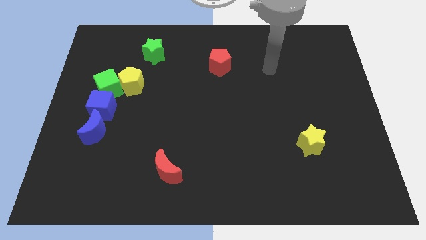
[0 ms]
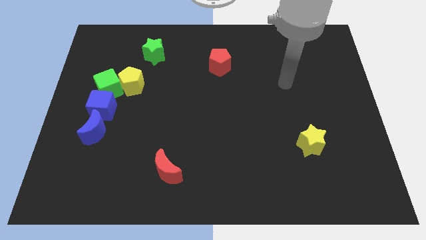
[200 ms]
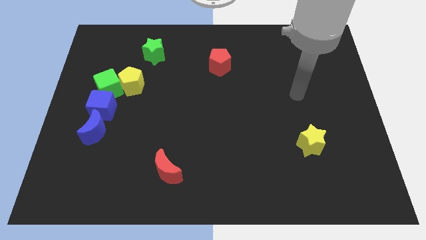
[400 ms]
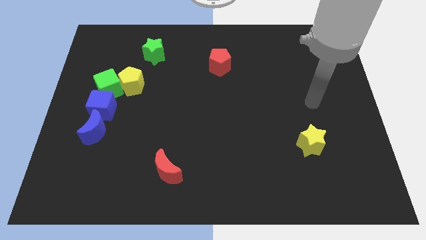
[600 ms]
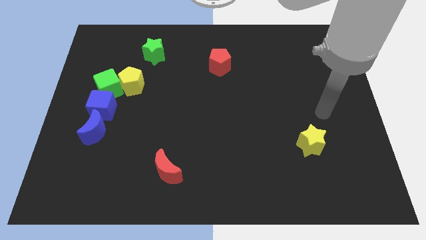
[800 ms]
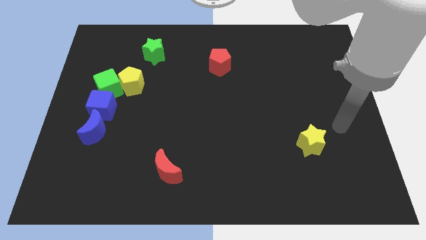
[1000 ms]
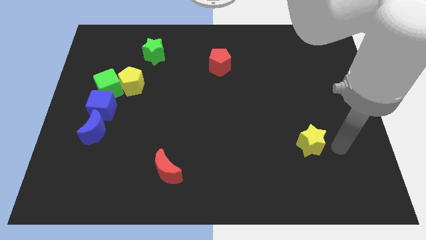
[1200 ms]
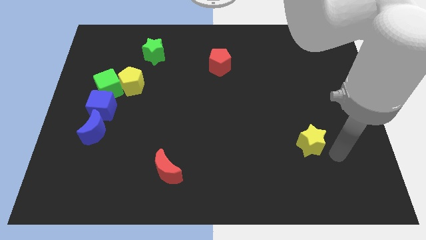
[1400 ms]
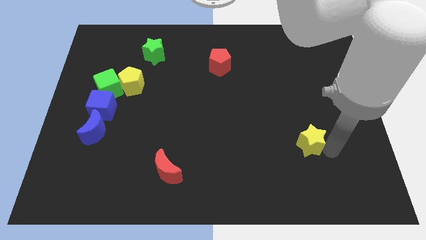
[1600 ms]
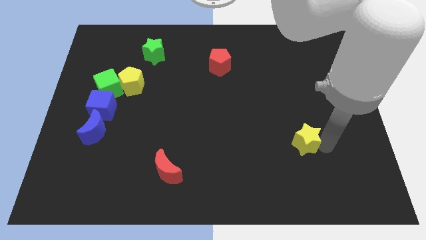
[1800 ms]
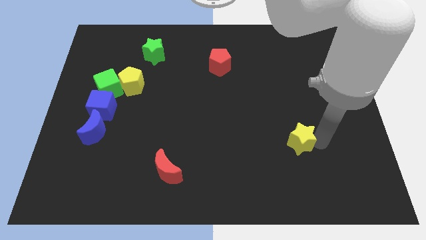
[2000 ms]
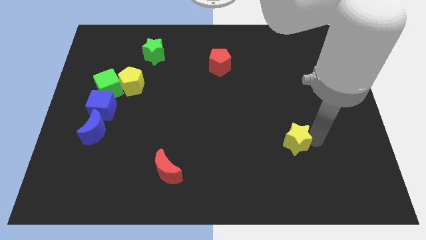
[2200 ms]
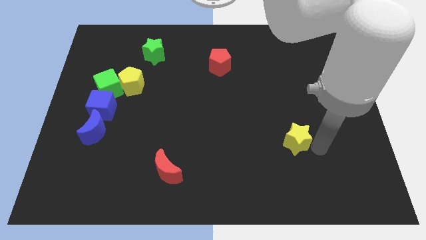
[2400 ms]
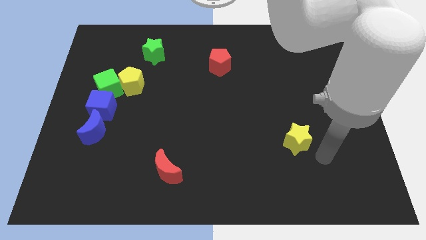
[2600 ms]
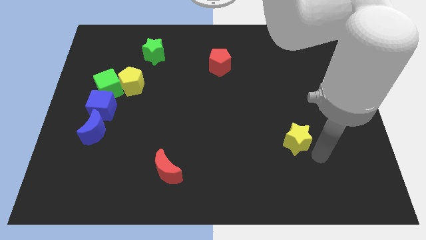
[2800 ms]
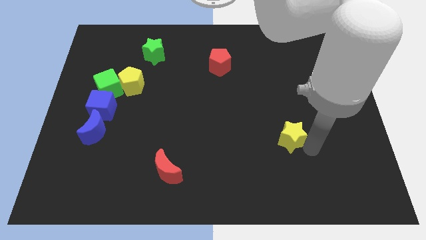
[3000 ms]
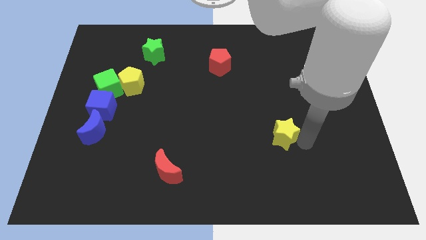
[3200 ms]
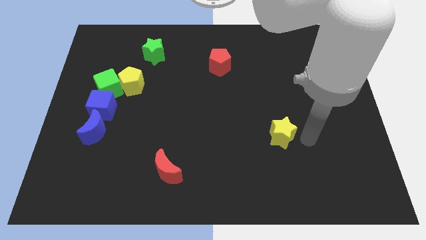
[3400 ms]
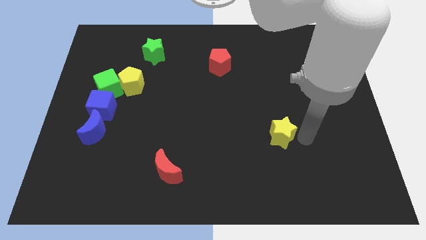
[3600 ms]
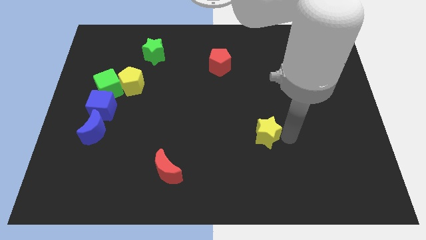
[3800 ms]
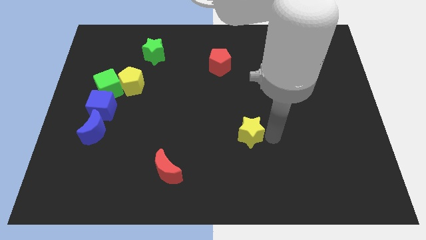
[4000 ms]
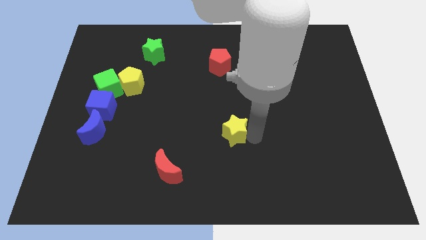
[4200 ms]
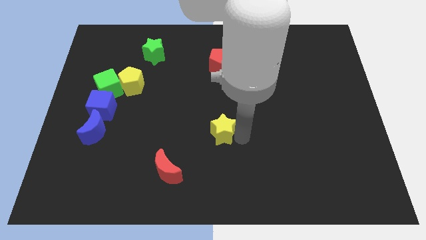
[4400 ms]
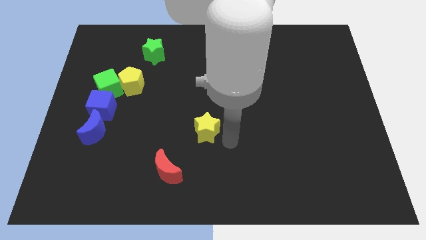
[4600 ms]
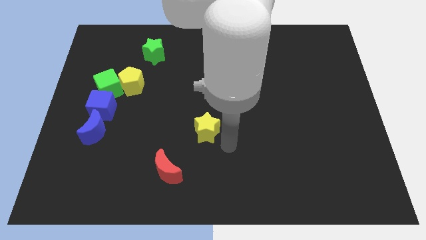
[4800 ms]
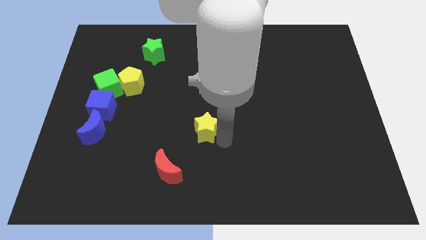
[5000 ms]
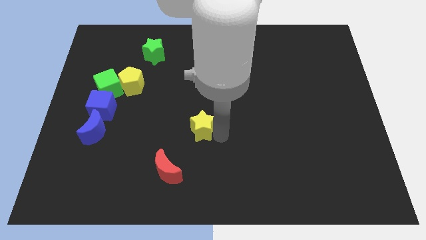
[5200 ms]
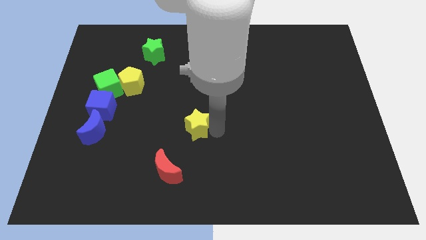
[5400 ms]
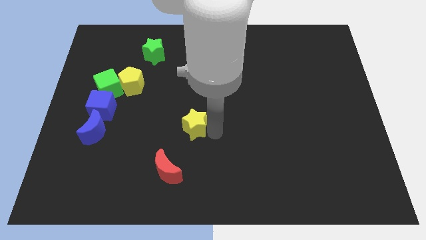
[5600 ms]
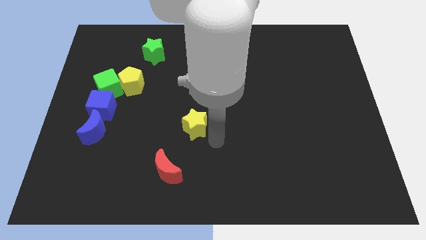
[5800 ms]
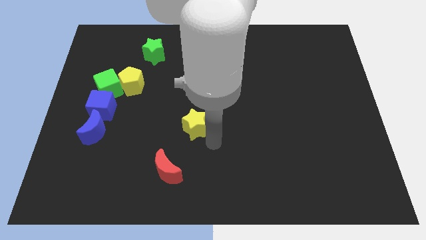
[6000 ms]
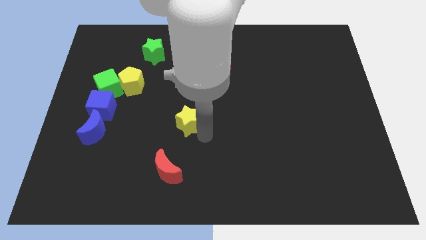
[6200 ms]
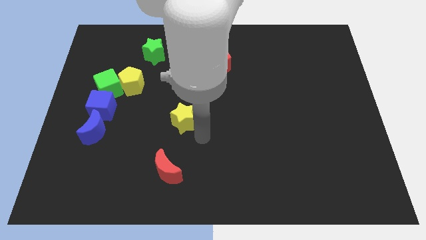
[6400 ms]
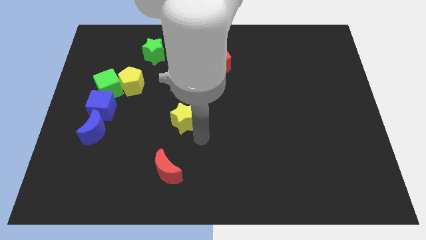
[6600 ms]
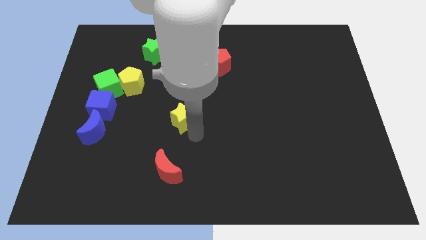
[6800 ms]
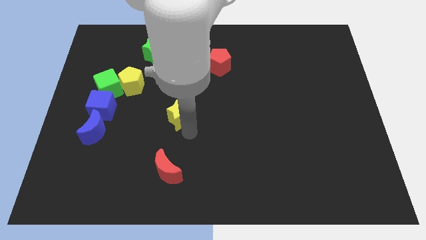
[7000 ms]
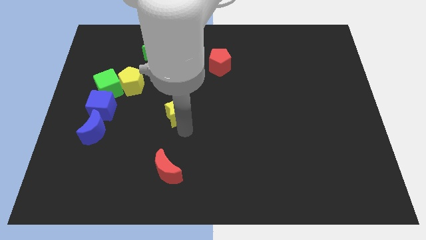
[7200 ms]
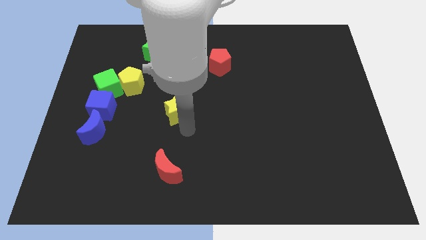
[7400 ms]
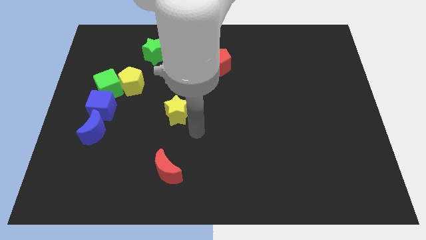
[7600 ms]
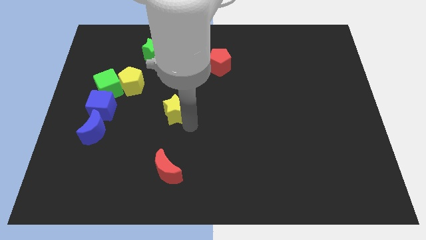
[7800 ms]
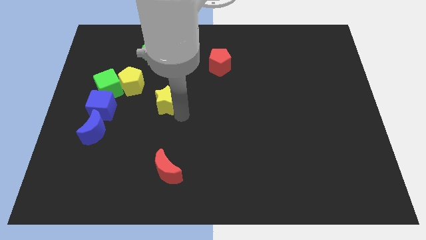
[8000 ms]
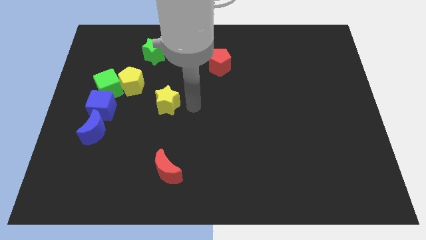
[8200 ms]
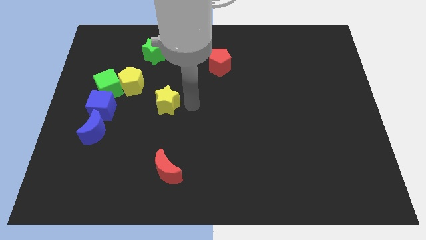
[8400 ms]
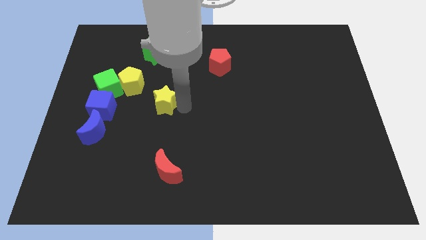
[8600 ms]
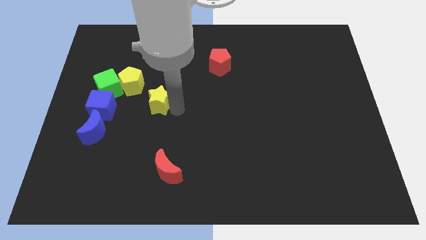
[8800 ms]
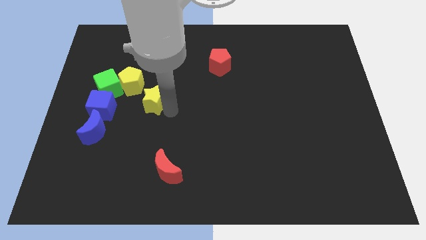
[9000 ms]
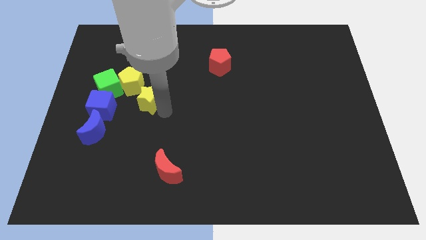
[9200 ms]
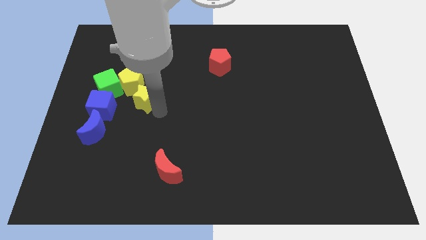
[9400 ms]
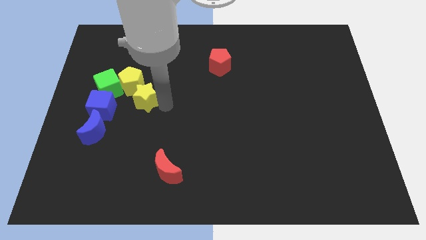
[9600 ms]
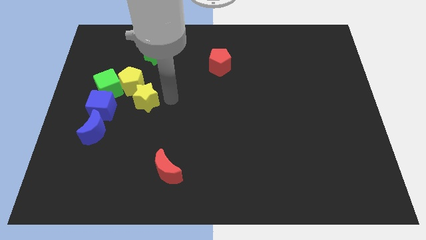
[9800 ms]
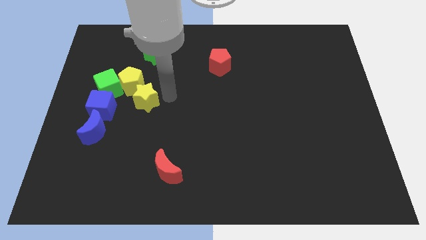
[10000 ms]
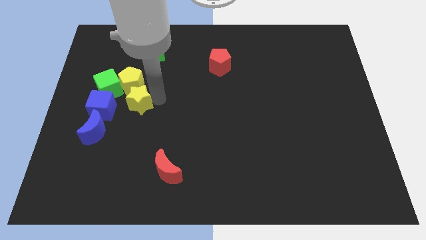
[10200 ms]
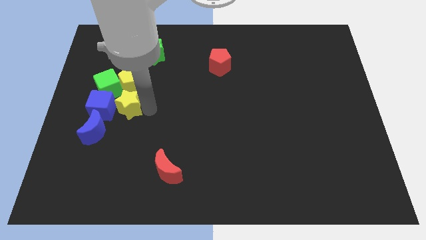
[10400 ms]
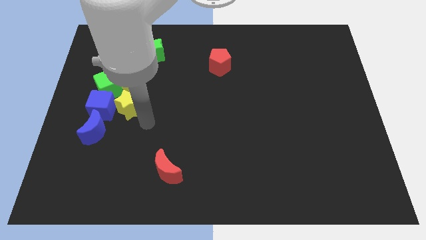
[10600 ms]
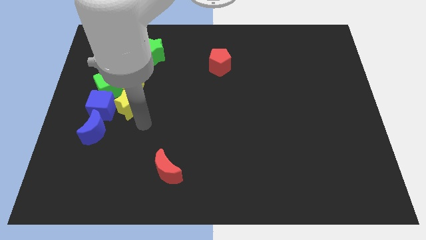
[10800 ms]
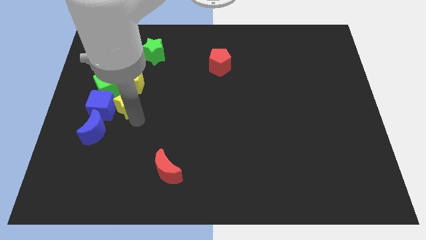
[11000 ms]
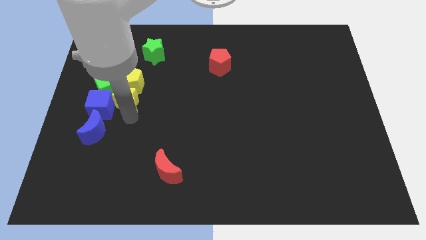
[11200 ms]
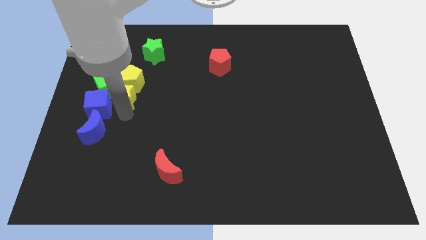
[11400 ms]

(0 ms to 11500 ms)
move the yellow star to the green cube

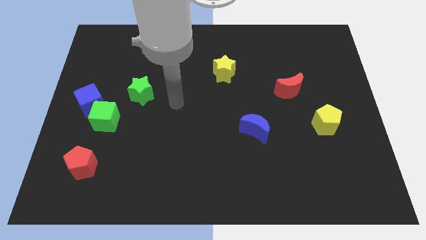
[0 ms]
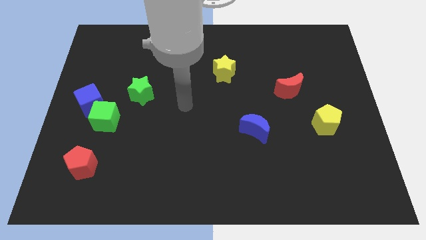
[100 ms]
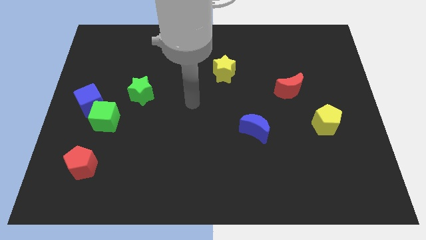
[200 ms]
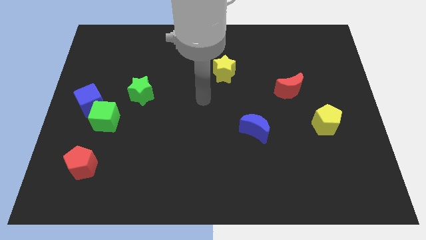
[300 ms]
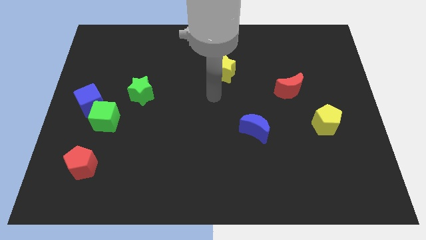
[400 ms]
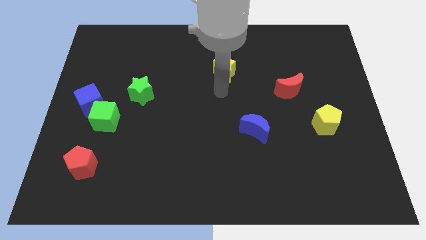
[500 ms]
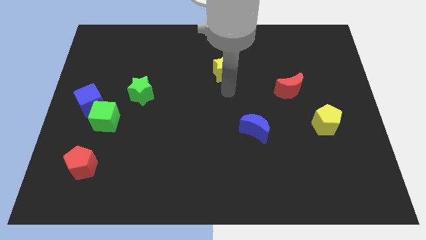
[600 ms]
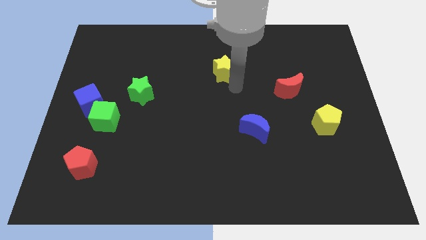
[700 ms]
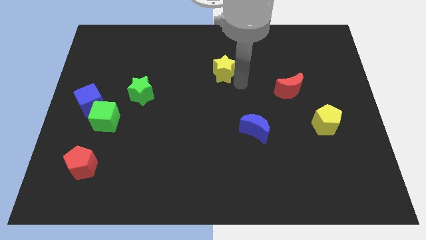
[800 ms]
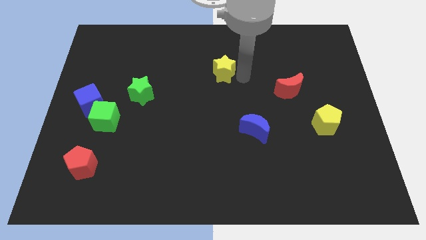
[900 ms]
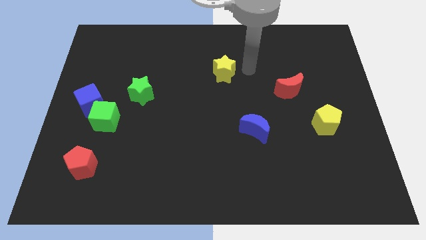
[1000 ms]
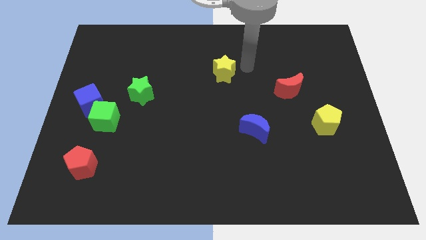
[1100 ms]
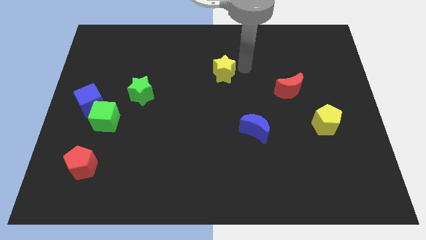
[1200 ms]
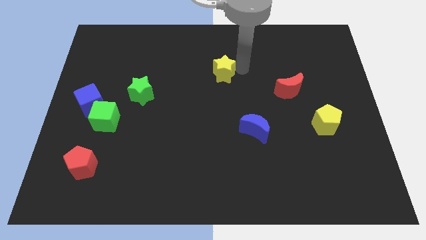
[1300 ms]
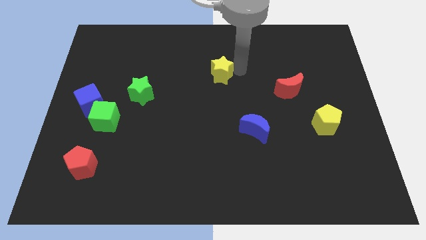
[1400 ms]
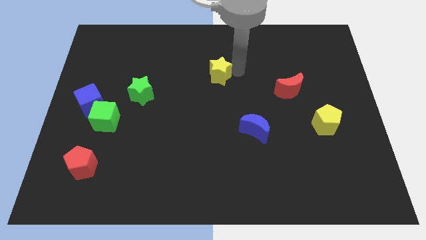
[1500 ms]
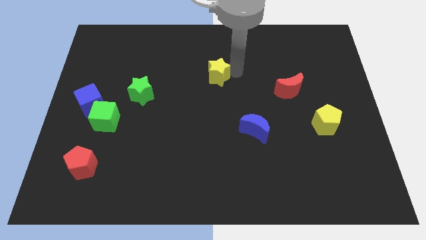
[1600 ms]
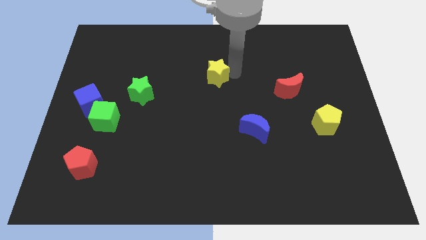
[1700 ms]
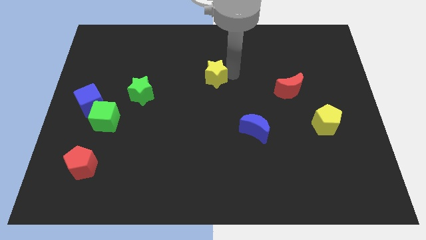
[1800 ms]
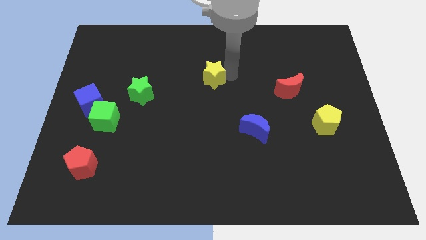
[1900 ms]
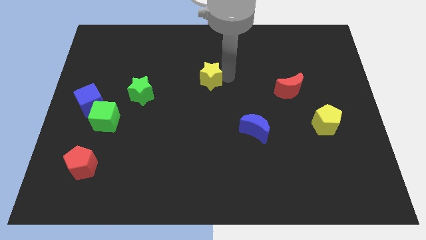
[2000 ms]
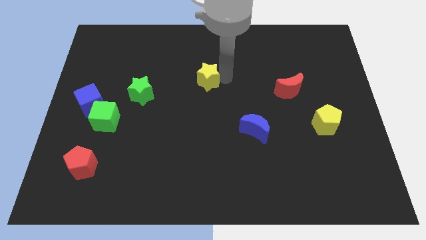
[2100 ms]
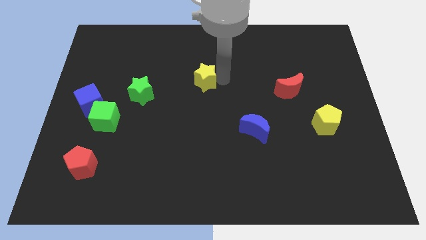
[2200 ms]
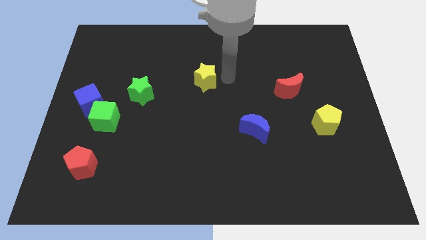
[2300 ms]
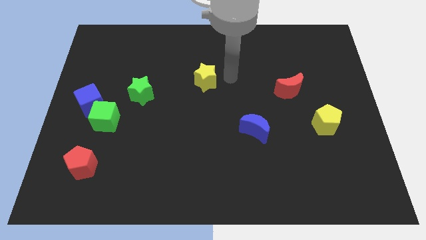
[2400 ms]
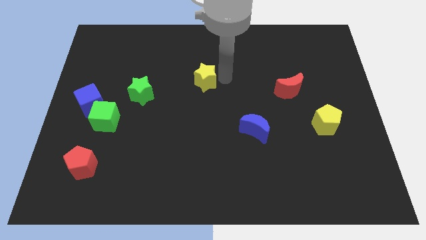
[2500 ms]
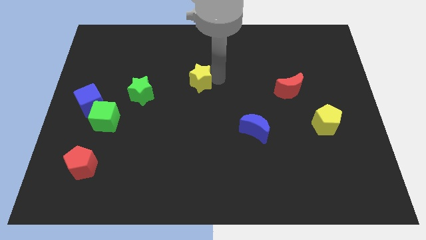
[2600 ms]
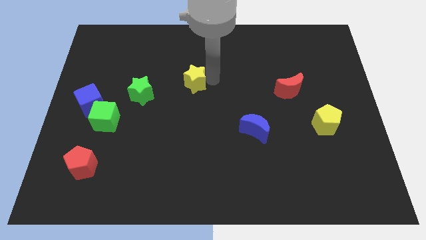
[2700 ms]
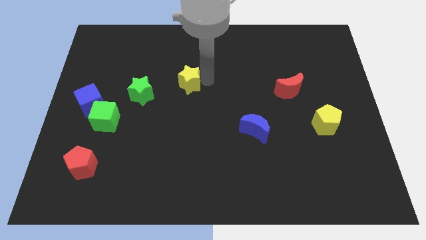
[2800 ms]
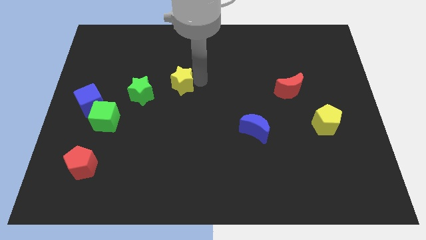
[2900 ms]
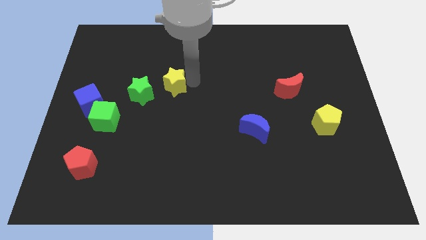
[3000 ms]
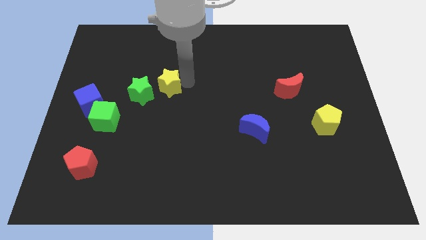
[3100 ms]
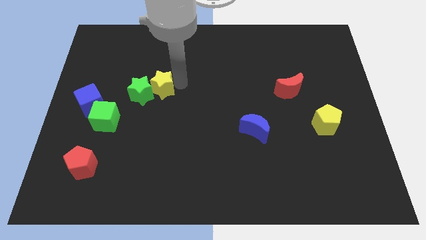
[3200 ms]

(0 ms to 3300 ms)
move the yellow star next to the green star
